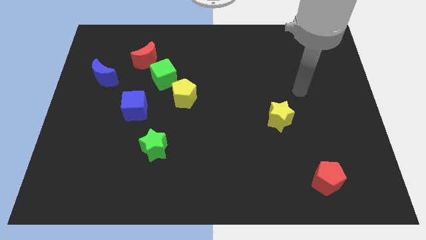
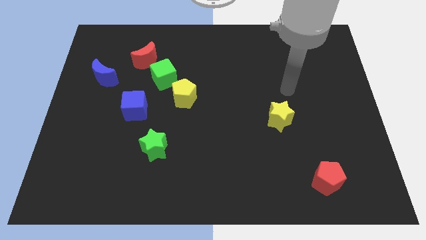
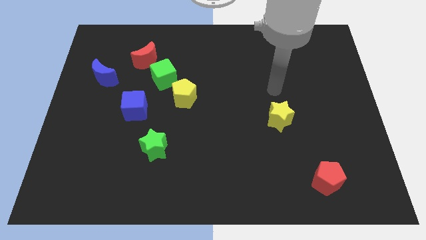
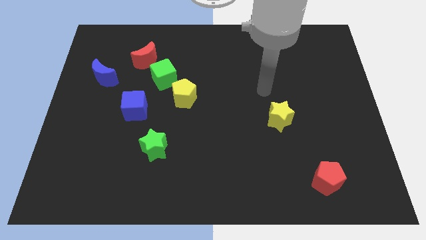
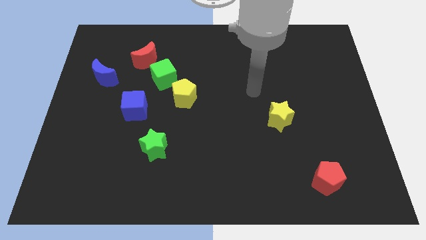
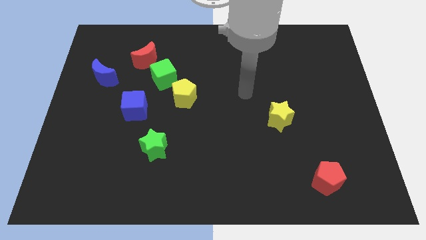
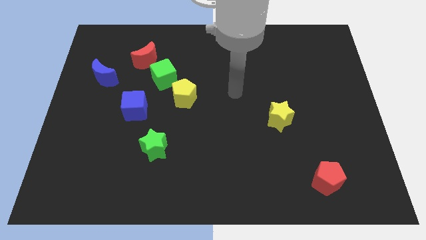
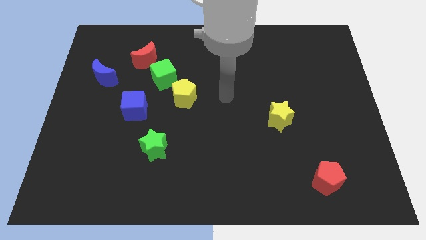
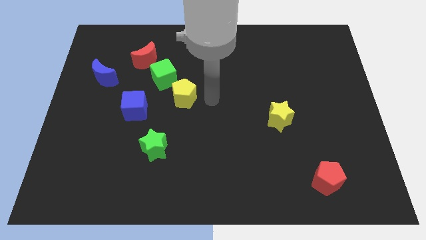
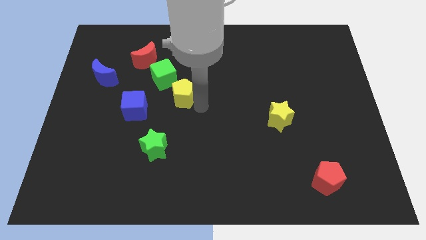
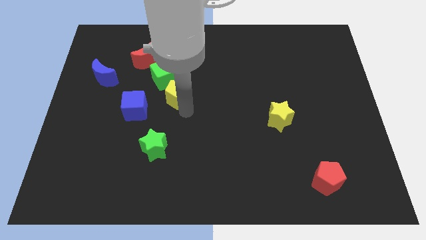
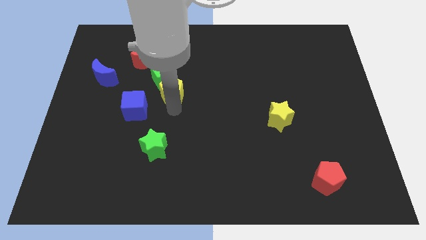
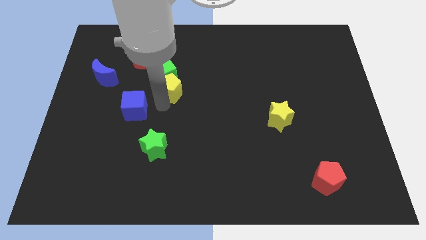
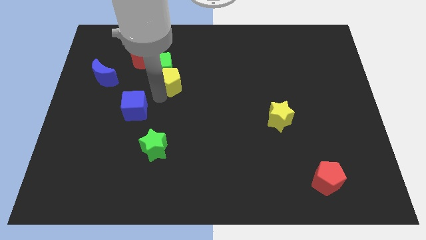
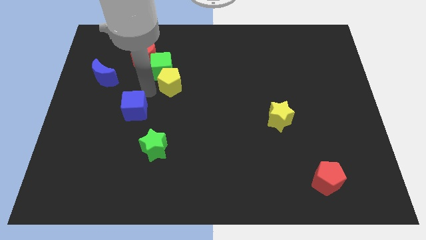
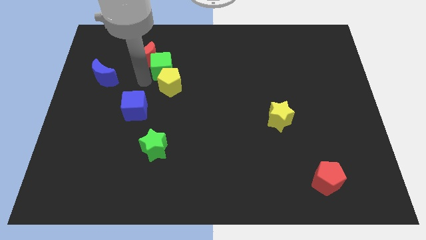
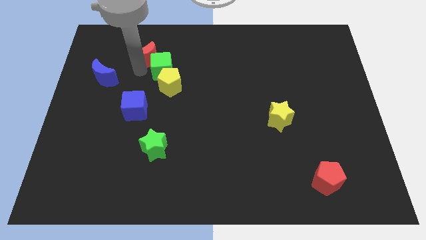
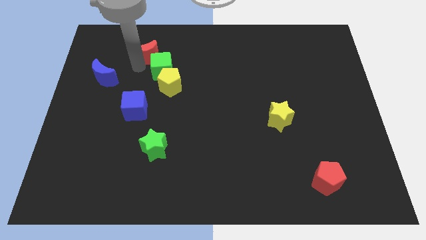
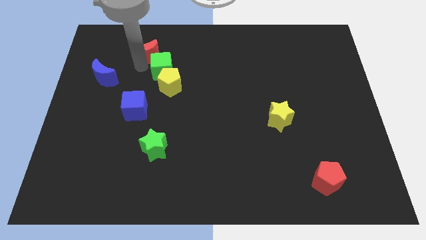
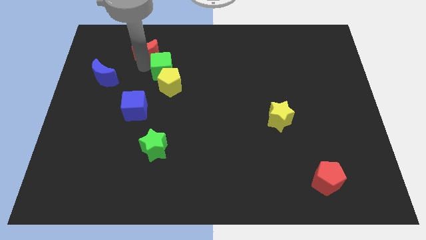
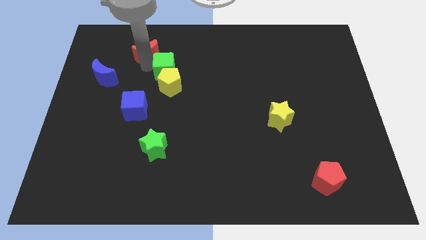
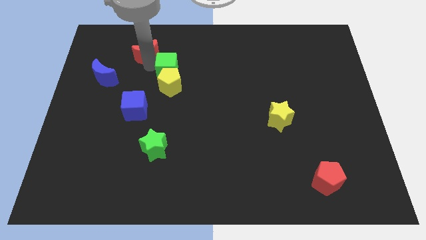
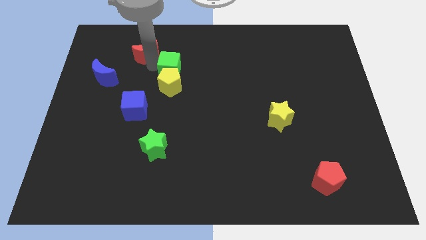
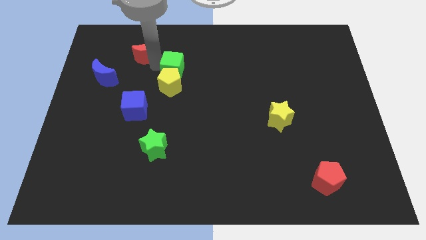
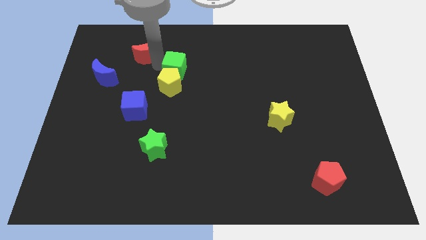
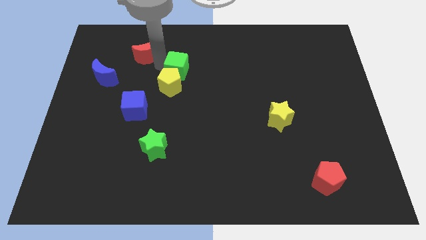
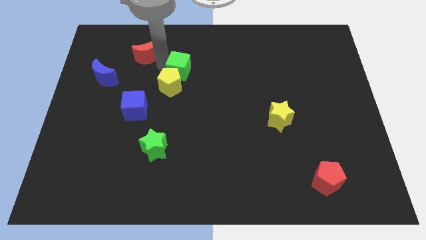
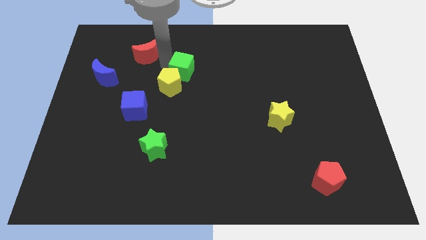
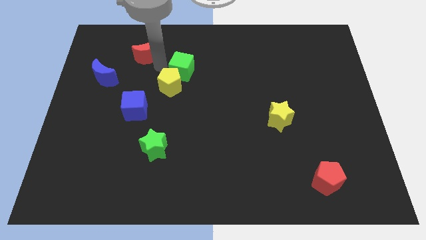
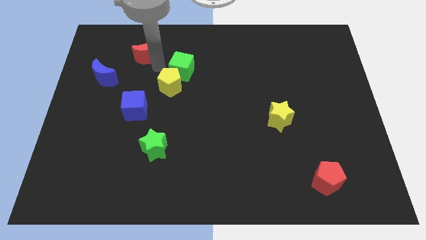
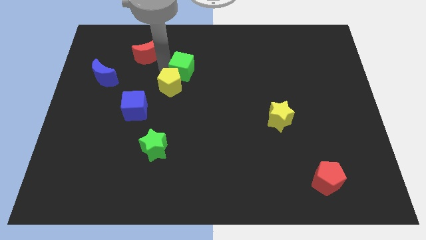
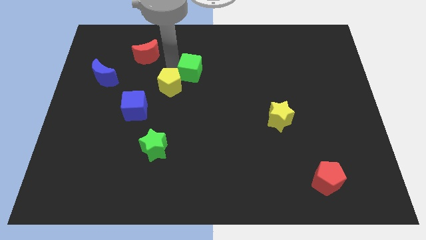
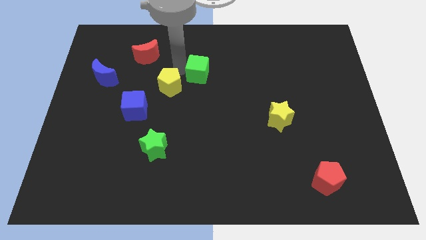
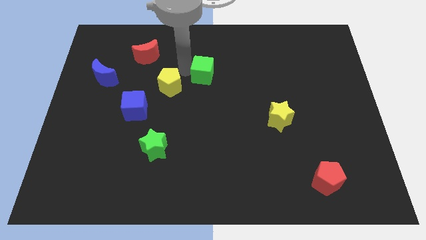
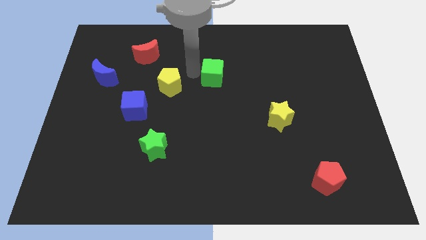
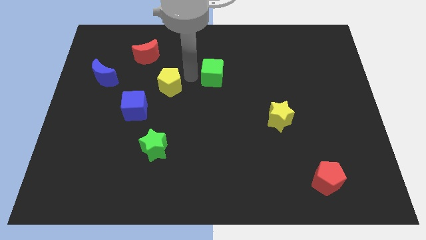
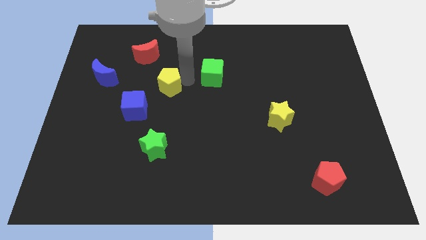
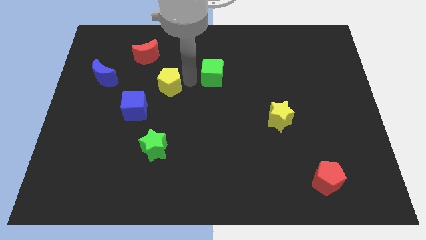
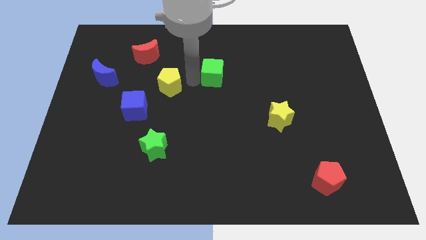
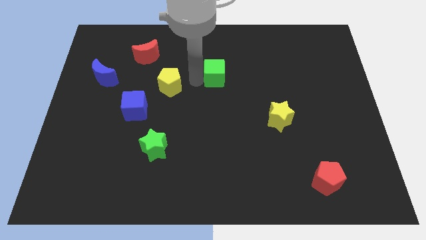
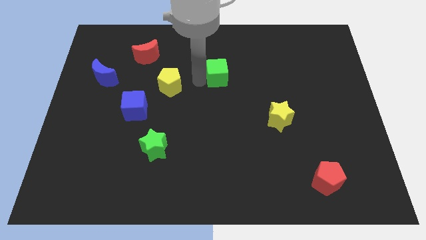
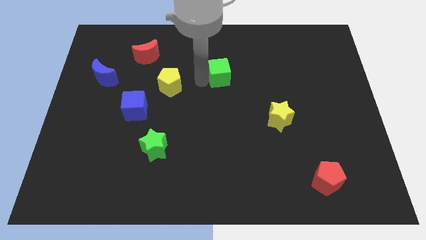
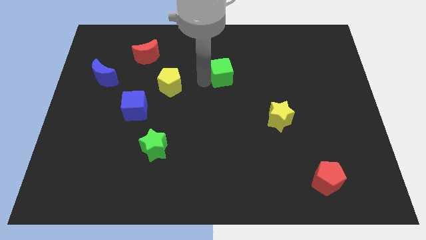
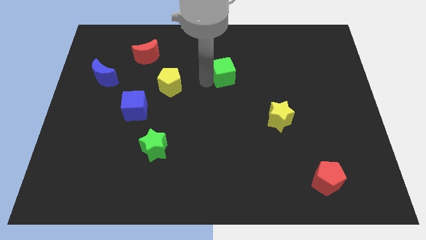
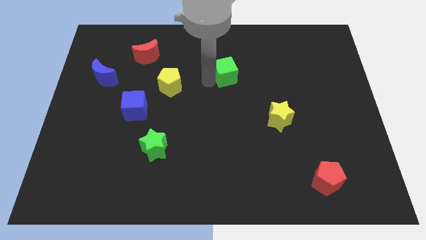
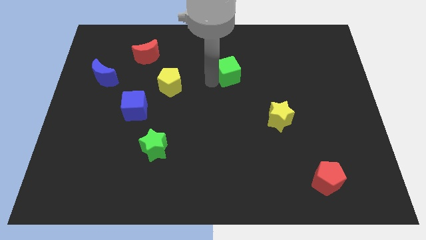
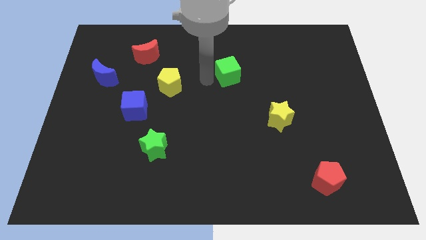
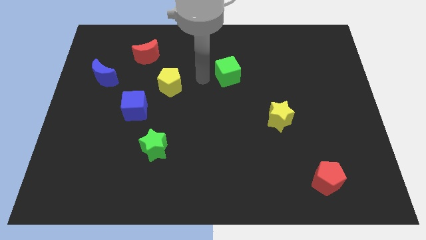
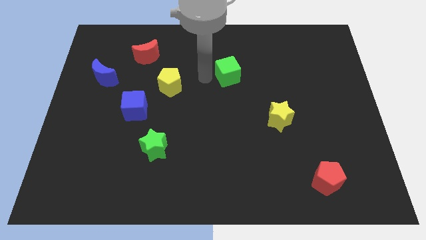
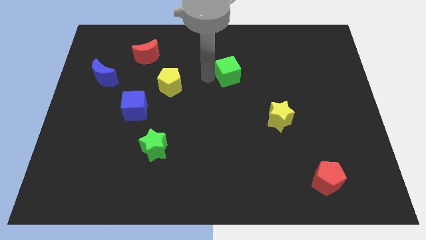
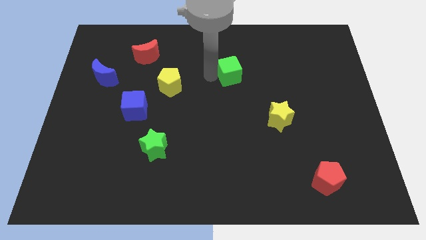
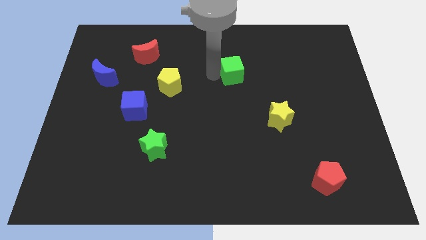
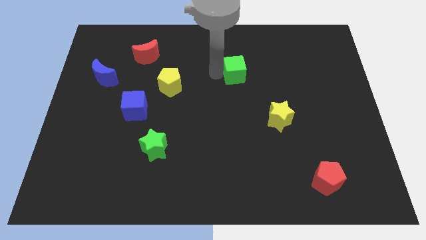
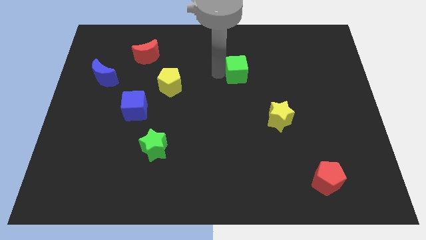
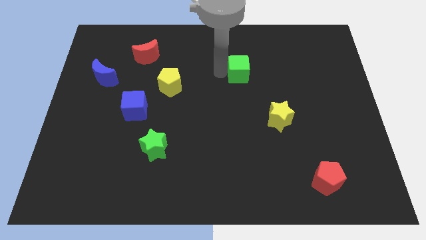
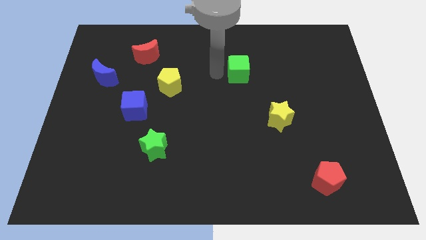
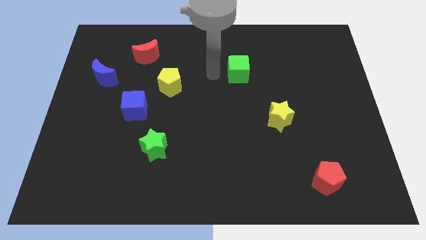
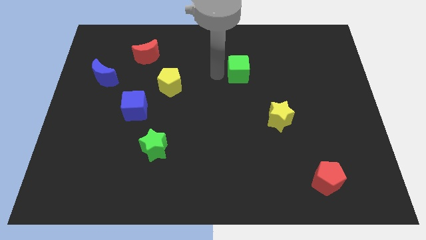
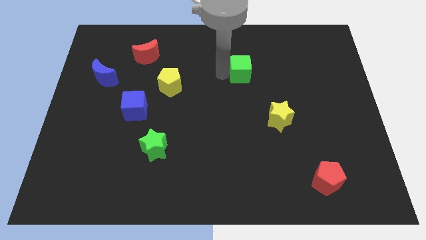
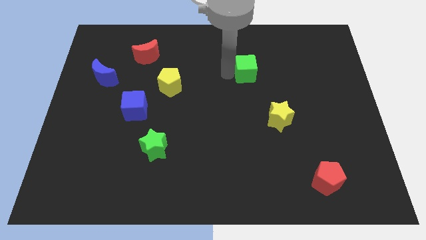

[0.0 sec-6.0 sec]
slide the green cube to the right

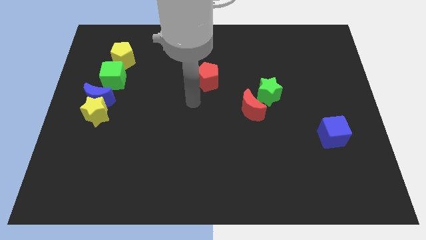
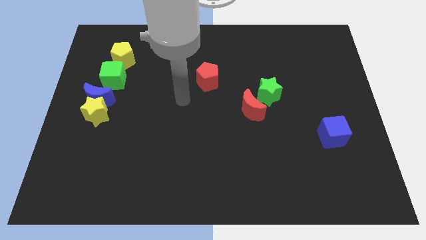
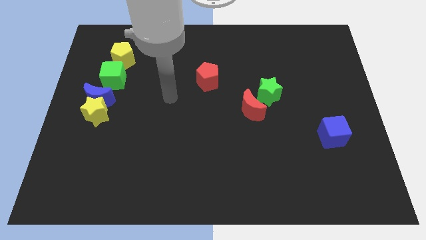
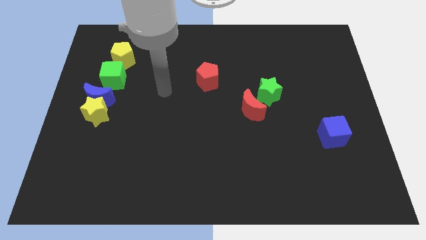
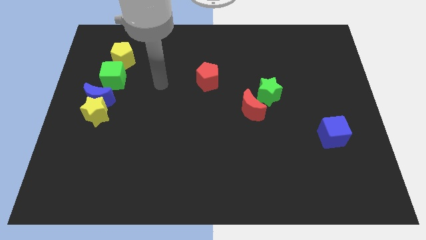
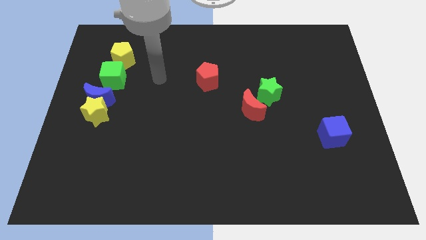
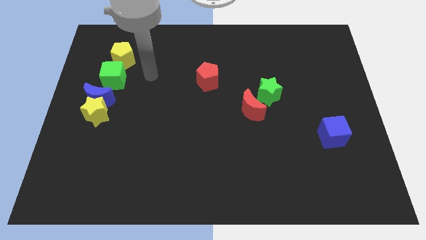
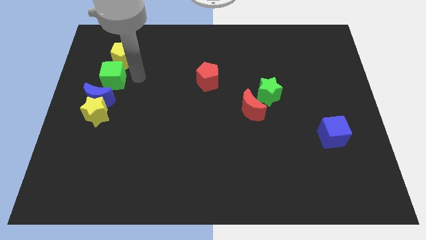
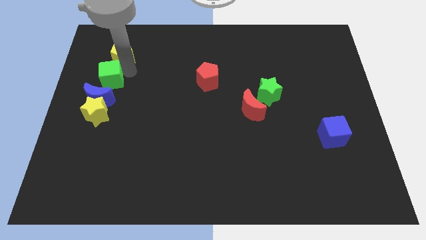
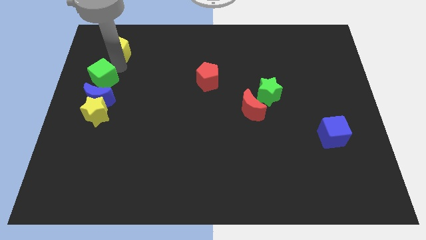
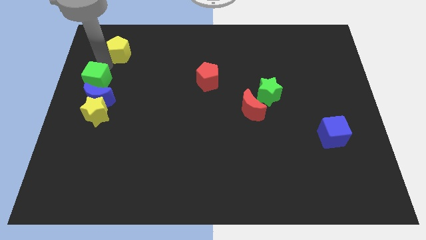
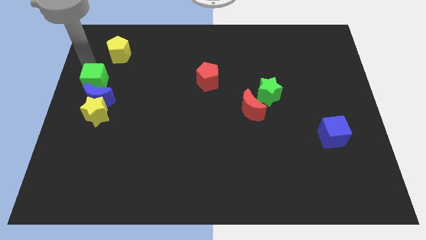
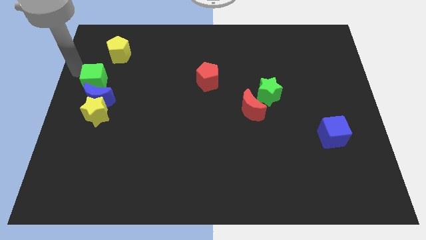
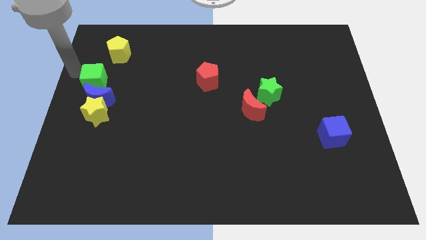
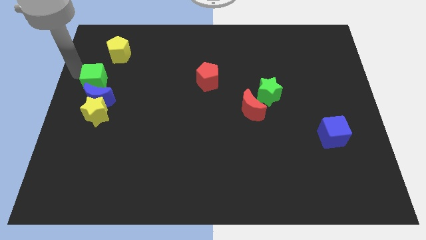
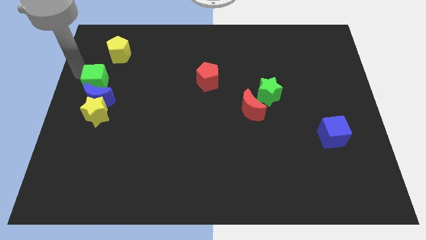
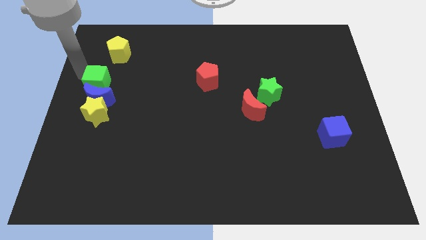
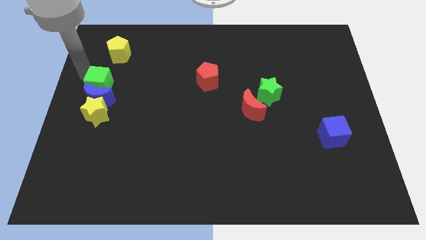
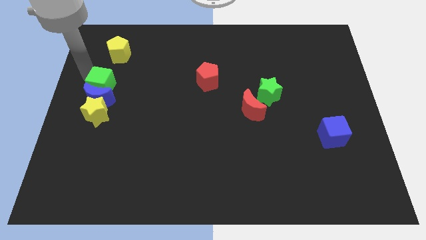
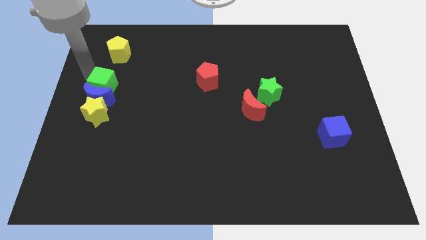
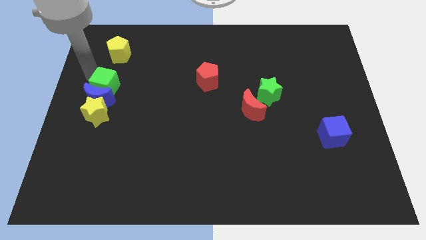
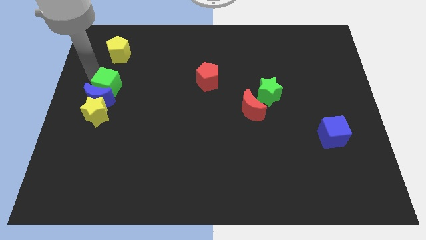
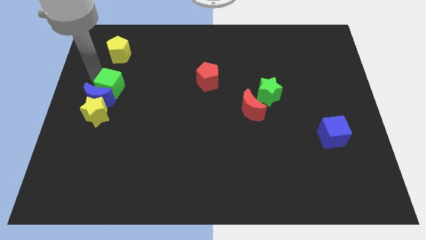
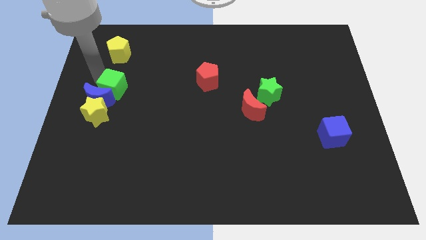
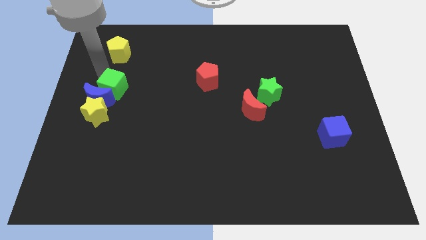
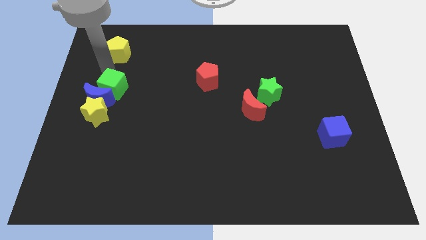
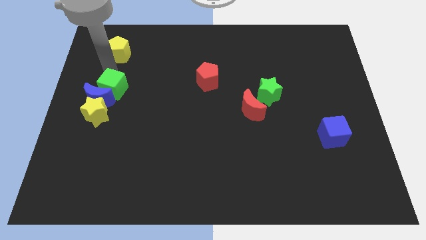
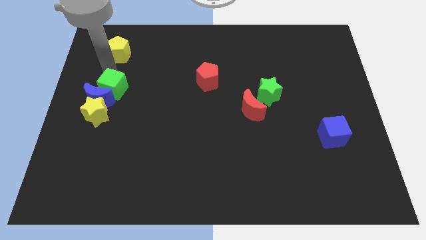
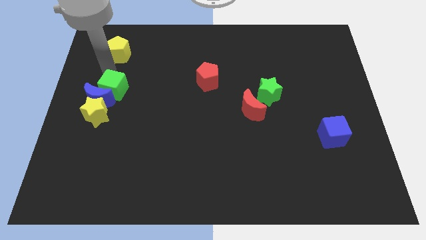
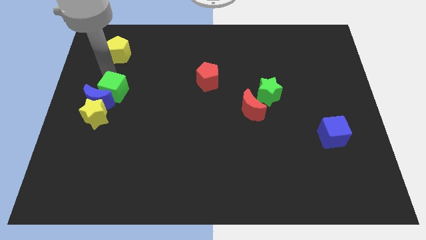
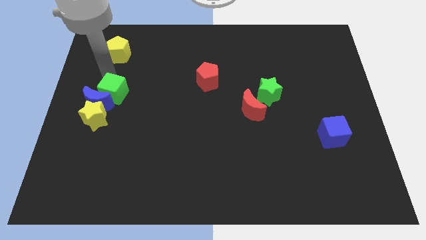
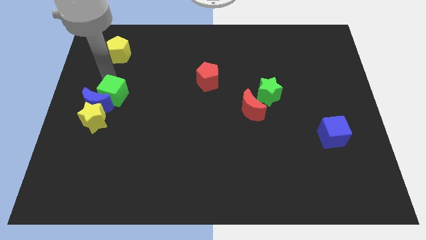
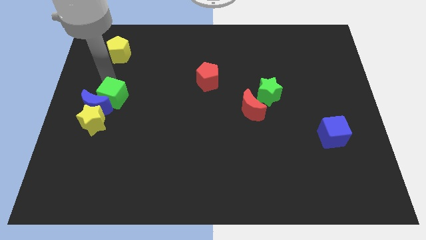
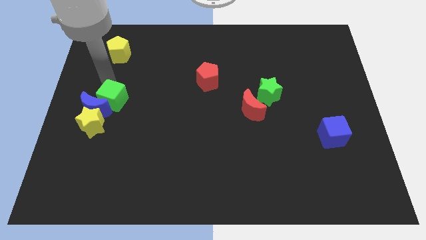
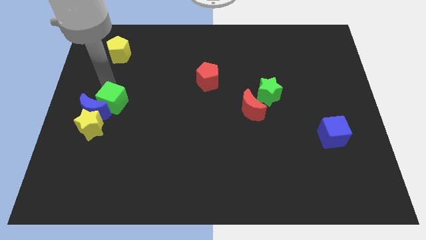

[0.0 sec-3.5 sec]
push the green cube a little down
